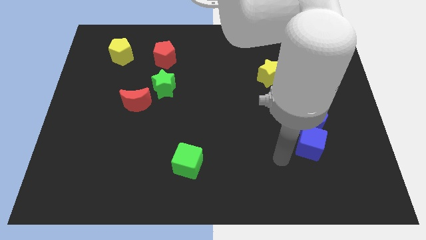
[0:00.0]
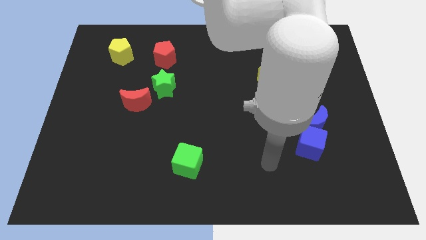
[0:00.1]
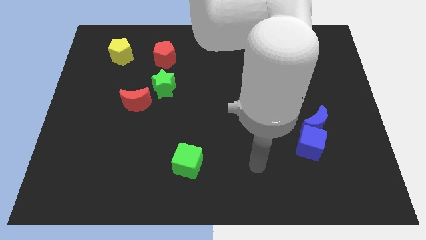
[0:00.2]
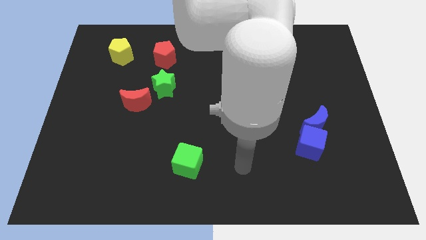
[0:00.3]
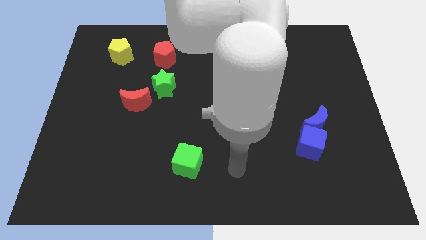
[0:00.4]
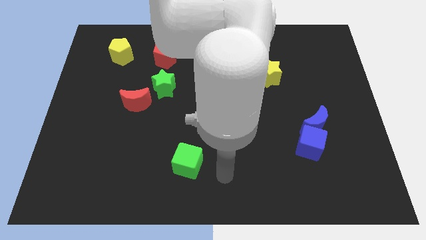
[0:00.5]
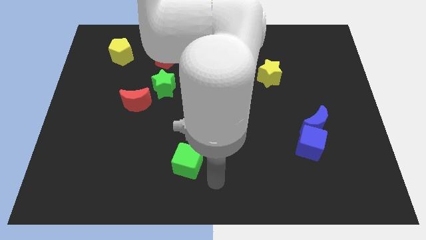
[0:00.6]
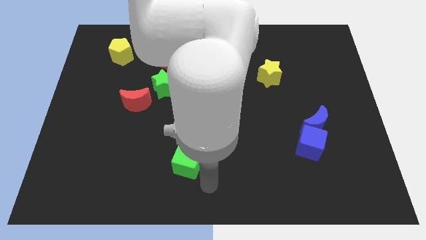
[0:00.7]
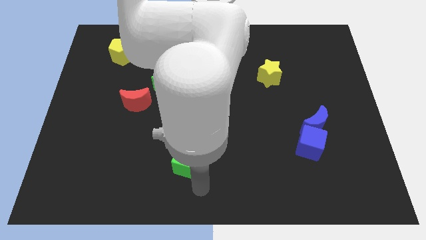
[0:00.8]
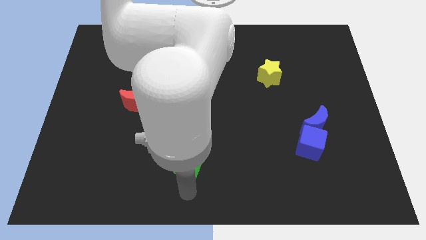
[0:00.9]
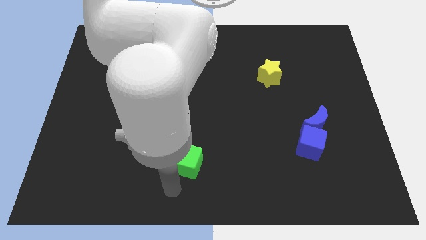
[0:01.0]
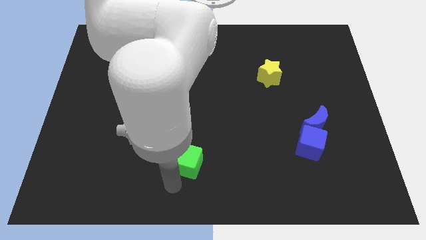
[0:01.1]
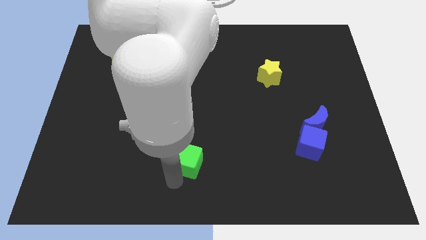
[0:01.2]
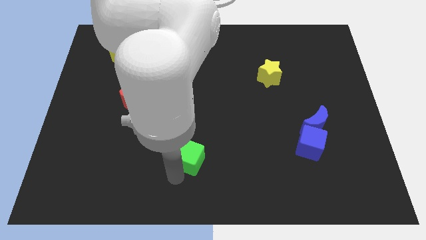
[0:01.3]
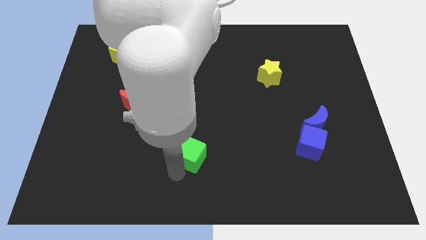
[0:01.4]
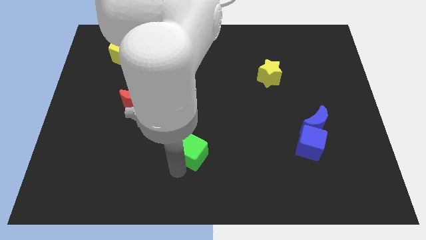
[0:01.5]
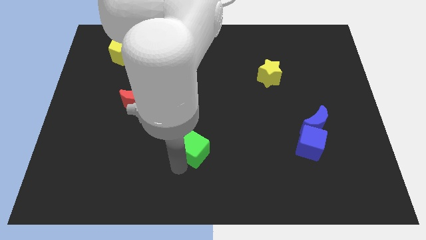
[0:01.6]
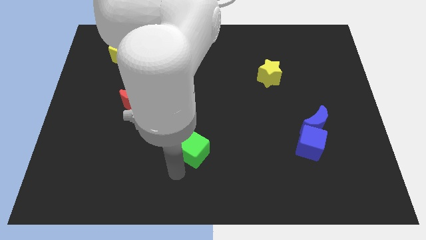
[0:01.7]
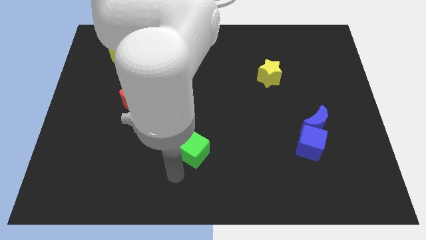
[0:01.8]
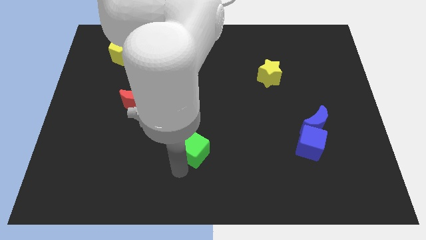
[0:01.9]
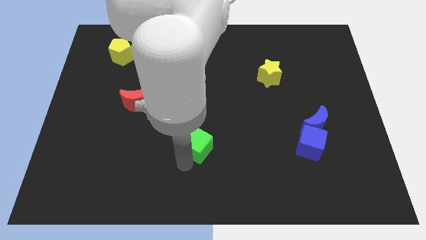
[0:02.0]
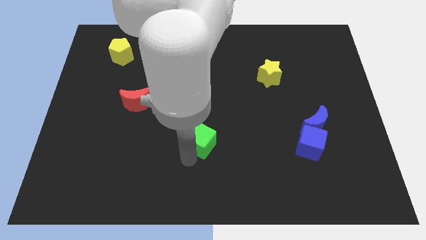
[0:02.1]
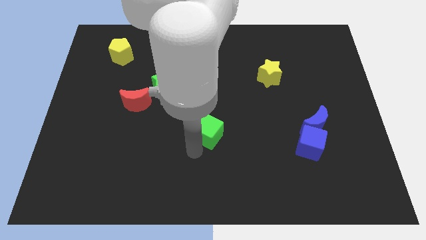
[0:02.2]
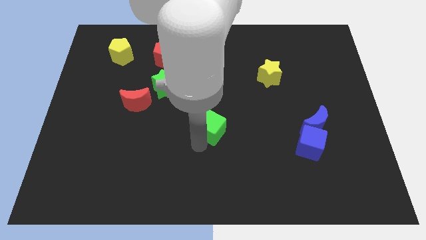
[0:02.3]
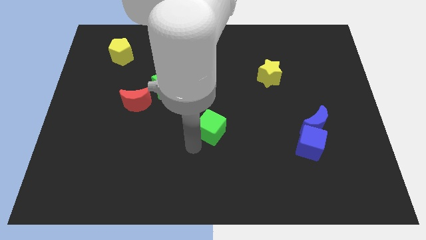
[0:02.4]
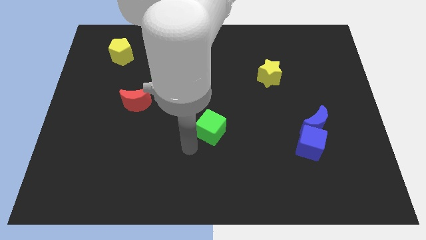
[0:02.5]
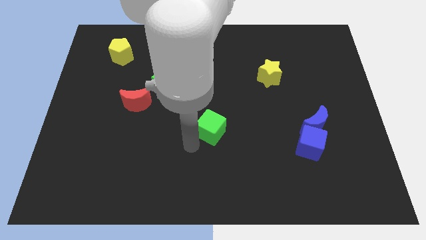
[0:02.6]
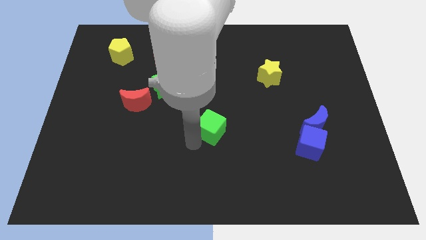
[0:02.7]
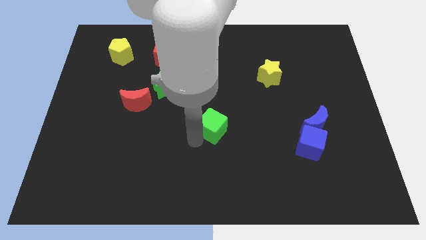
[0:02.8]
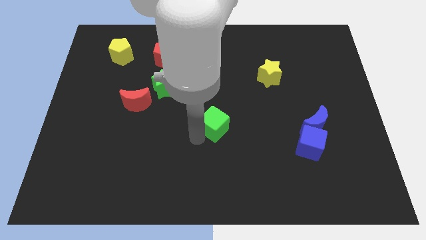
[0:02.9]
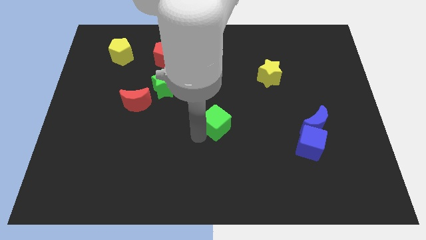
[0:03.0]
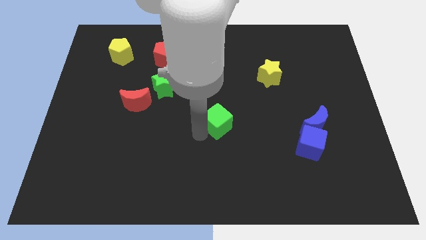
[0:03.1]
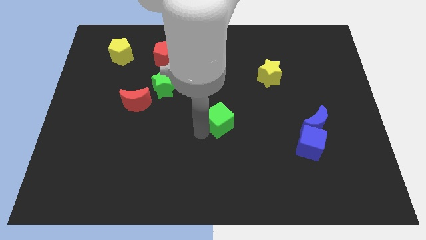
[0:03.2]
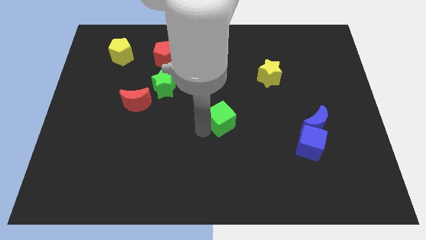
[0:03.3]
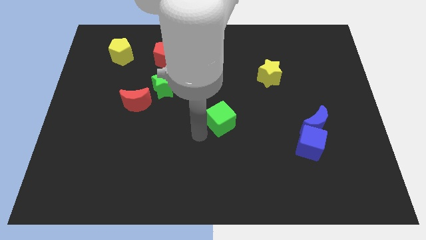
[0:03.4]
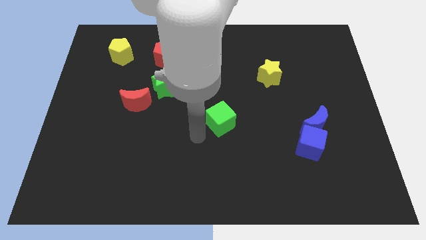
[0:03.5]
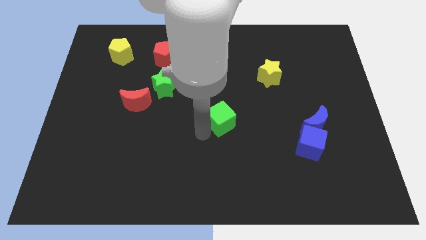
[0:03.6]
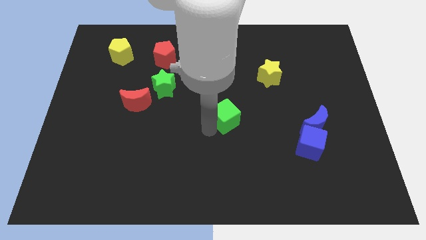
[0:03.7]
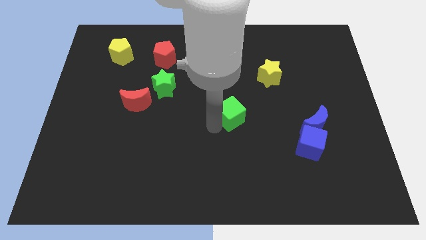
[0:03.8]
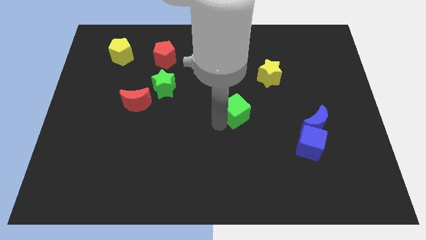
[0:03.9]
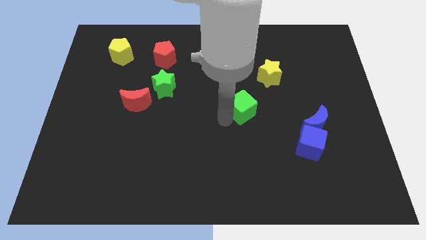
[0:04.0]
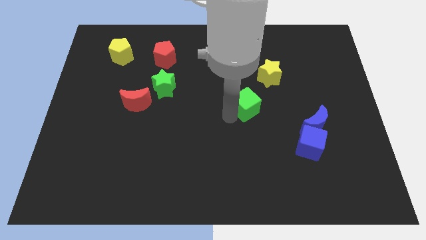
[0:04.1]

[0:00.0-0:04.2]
slide the green cube diagonally upwards and right

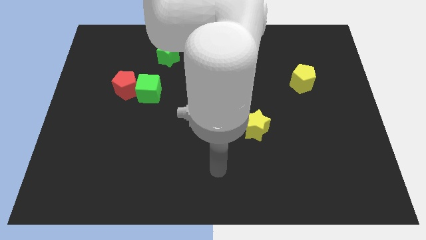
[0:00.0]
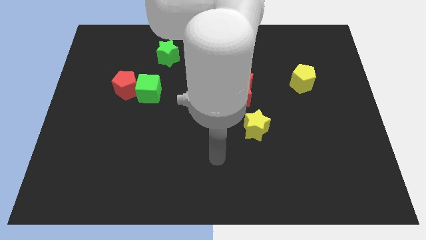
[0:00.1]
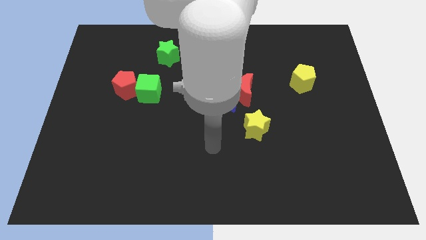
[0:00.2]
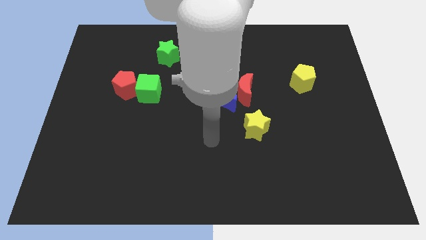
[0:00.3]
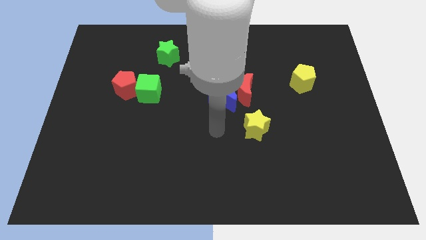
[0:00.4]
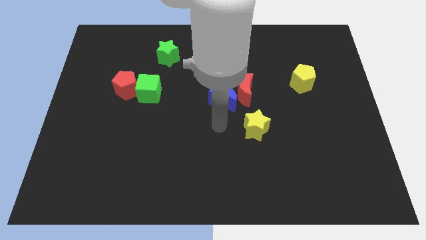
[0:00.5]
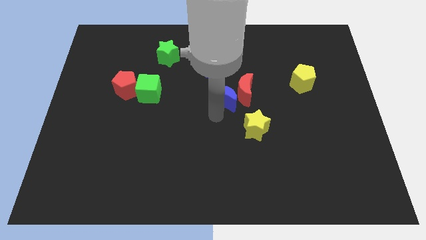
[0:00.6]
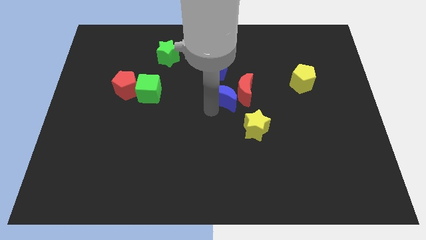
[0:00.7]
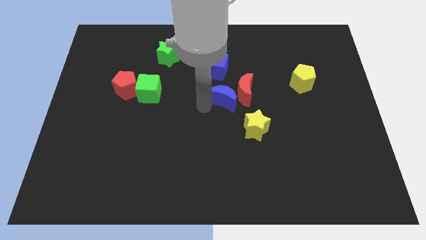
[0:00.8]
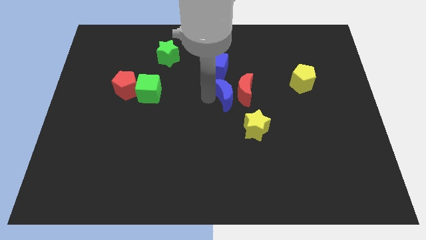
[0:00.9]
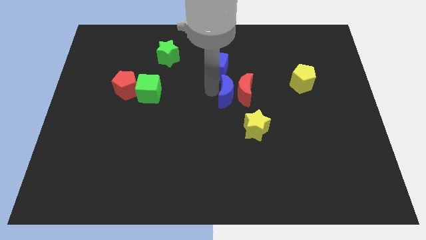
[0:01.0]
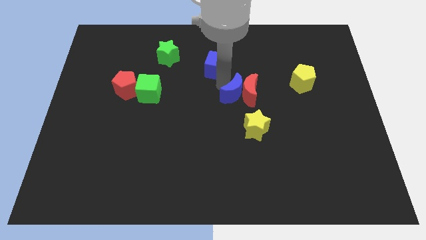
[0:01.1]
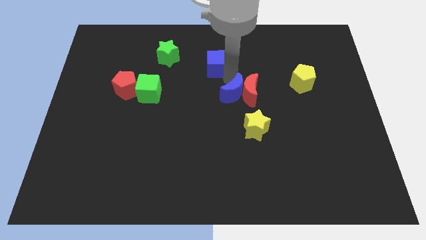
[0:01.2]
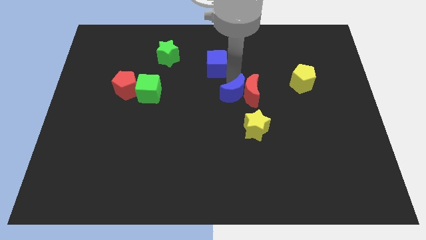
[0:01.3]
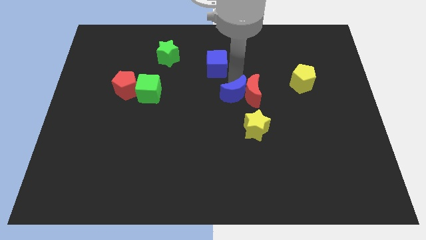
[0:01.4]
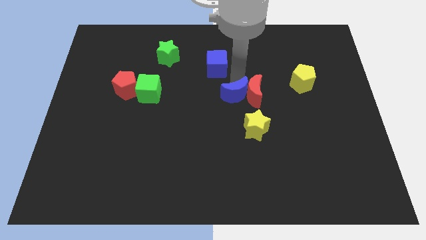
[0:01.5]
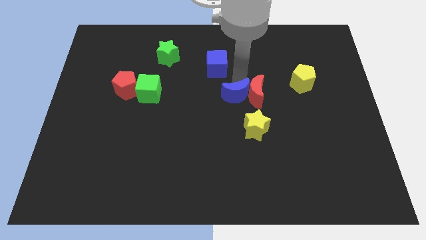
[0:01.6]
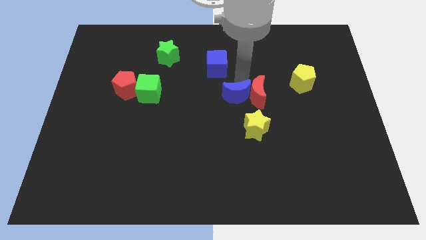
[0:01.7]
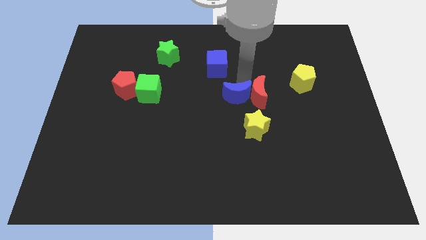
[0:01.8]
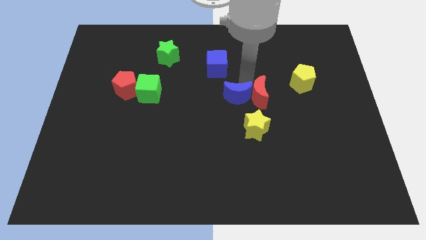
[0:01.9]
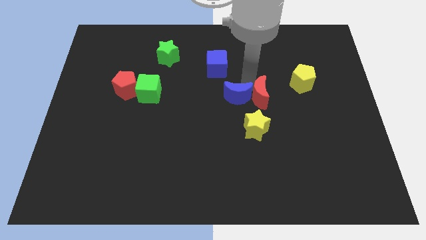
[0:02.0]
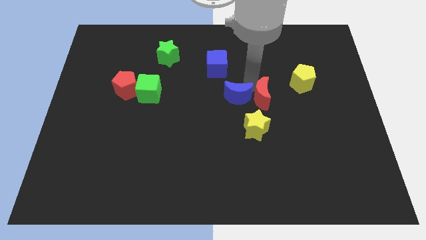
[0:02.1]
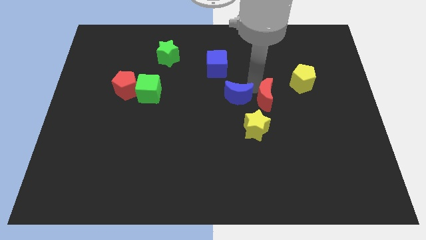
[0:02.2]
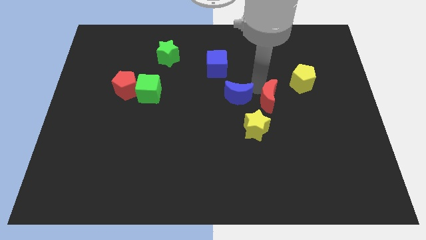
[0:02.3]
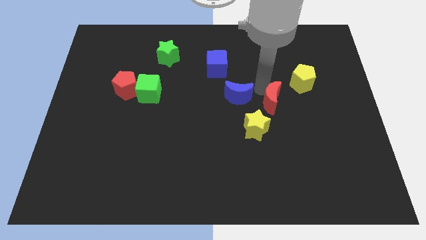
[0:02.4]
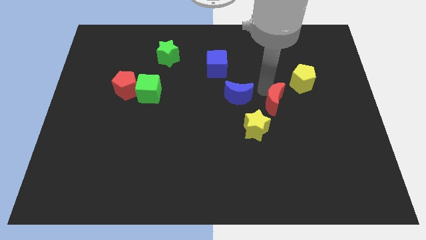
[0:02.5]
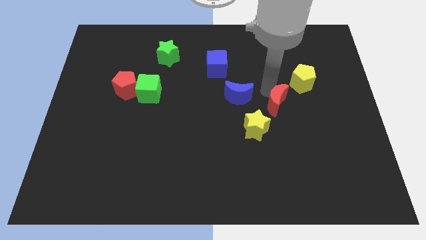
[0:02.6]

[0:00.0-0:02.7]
slide the red moon a little down and then to the right

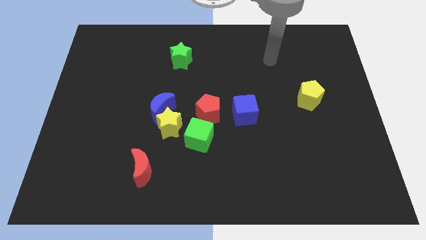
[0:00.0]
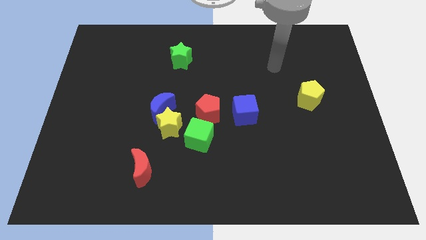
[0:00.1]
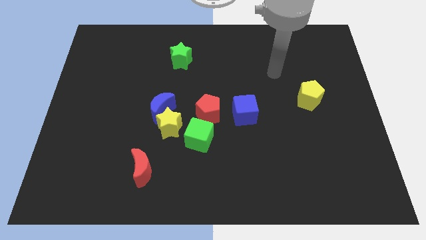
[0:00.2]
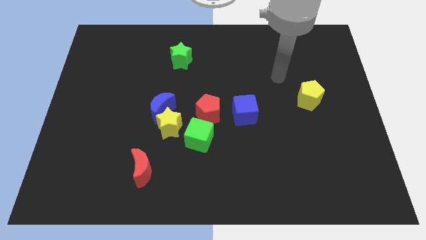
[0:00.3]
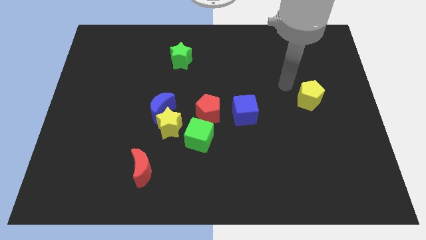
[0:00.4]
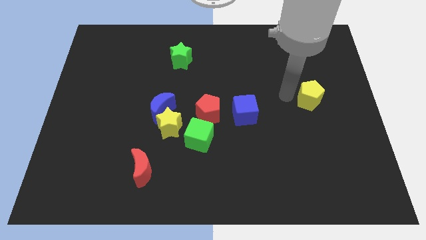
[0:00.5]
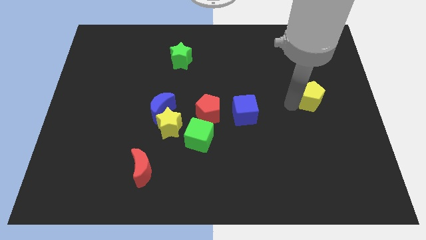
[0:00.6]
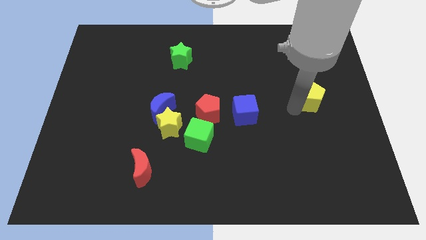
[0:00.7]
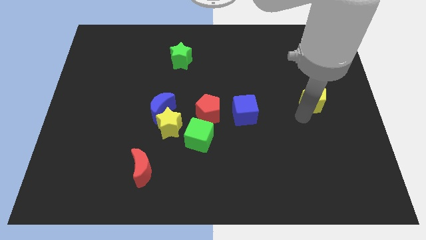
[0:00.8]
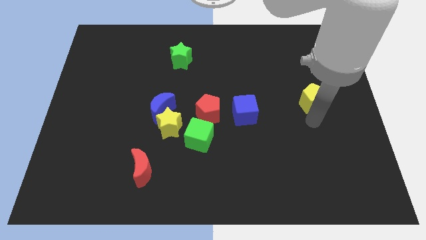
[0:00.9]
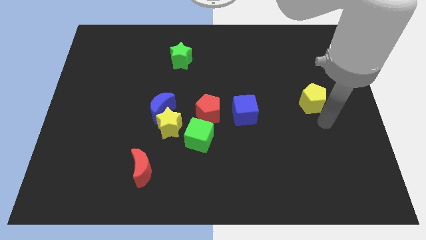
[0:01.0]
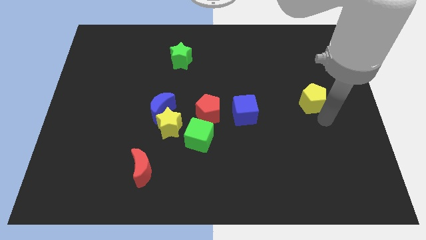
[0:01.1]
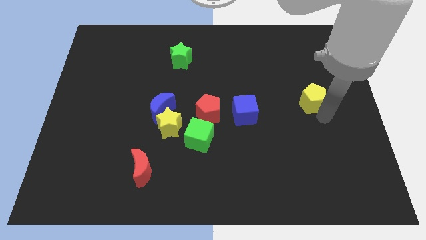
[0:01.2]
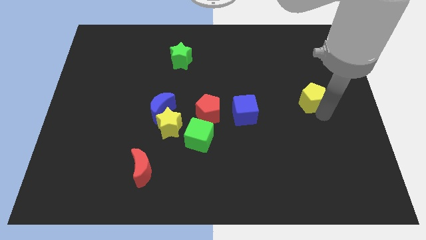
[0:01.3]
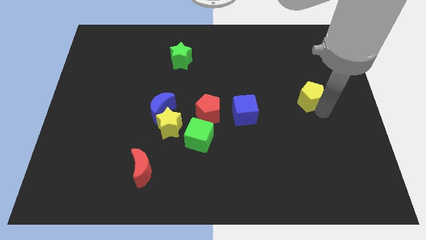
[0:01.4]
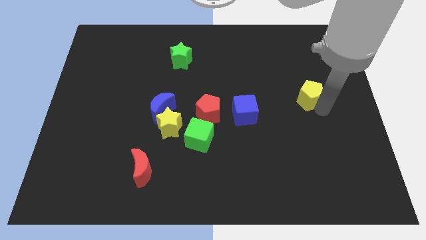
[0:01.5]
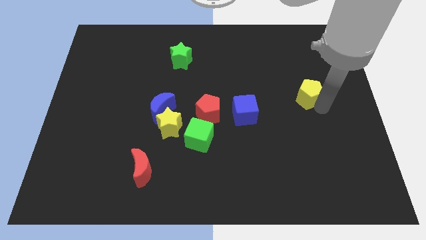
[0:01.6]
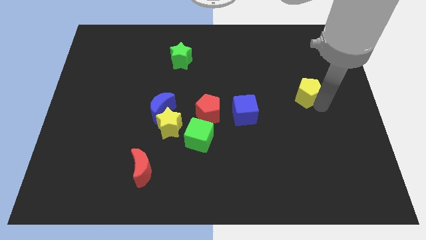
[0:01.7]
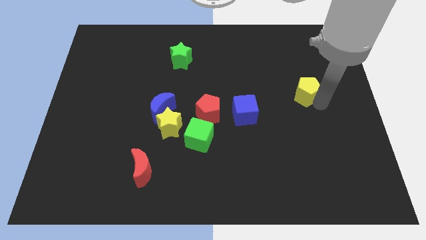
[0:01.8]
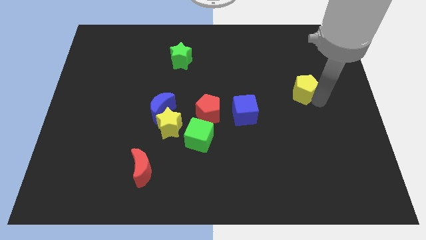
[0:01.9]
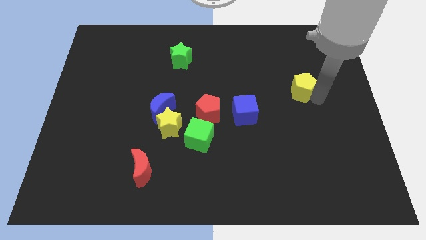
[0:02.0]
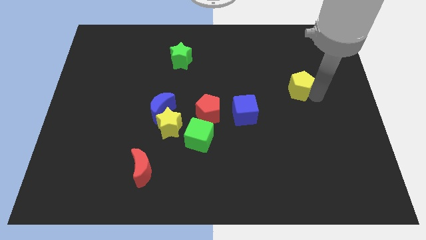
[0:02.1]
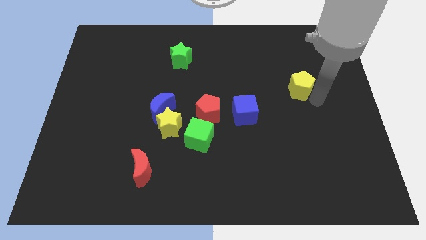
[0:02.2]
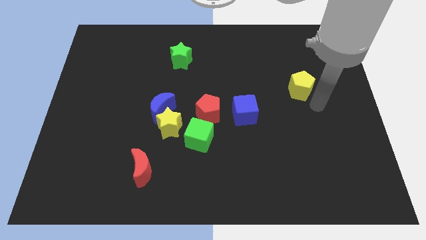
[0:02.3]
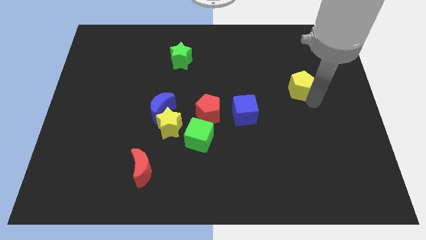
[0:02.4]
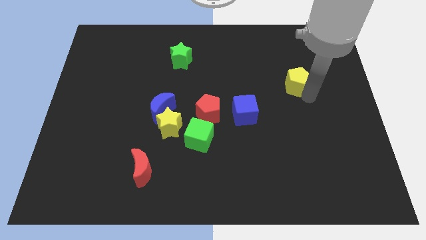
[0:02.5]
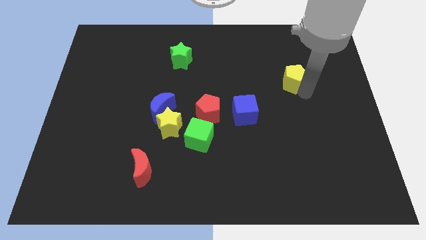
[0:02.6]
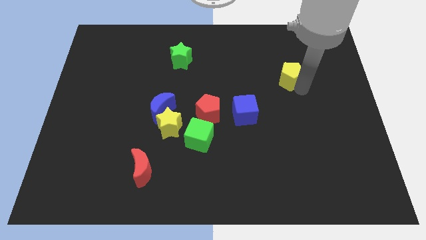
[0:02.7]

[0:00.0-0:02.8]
move the yellow pentagon upwards and then to the left slightly
